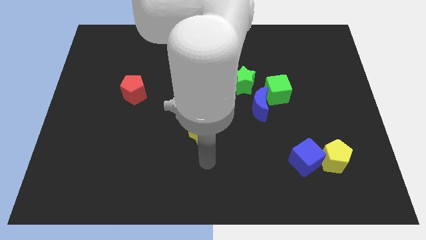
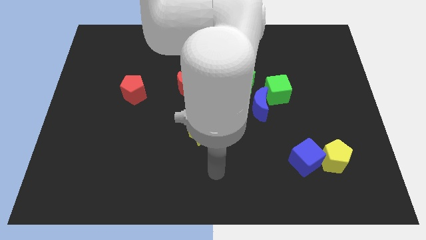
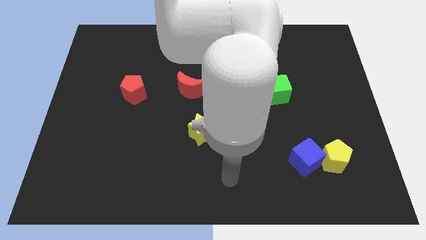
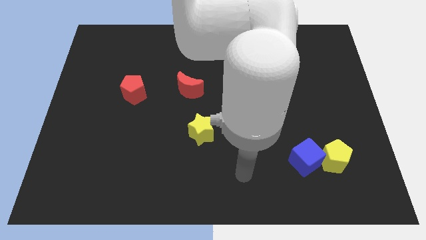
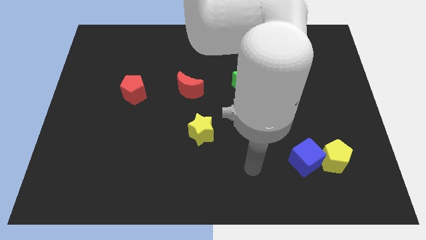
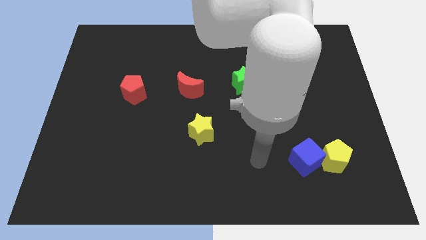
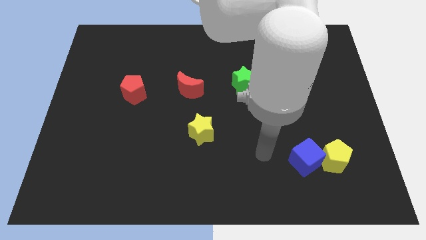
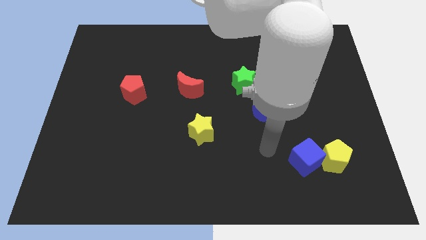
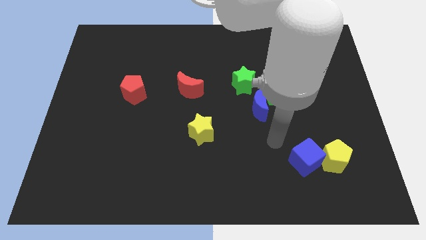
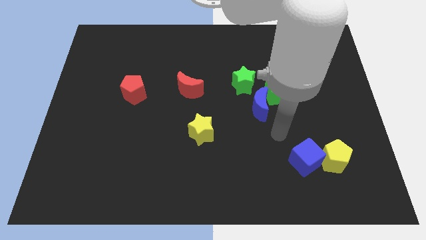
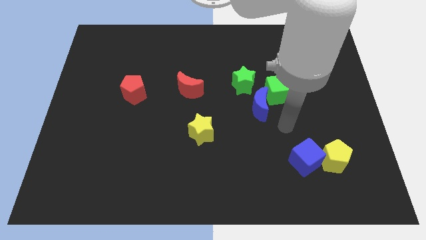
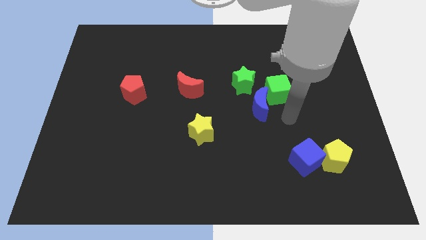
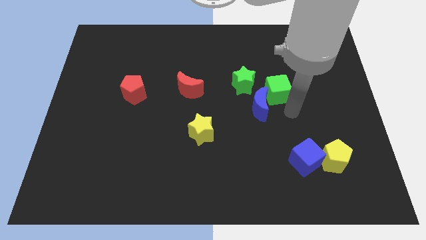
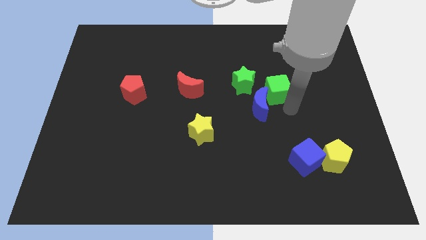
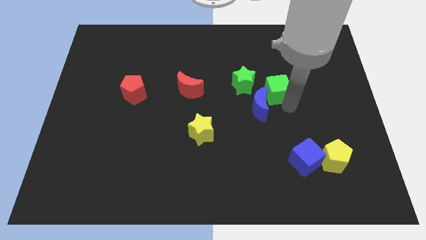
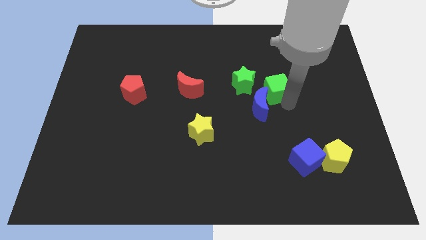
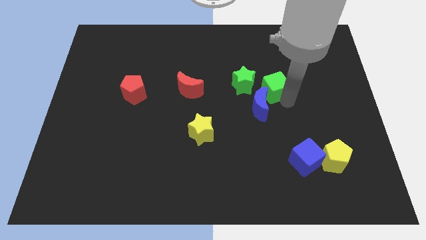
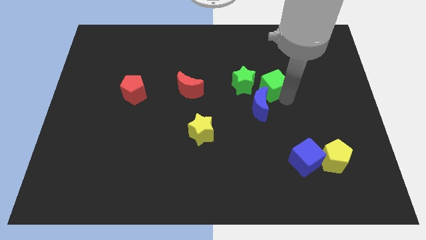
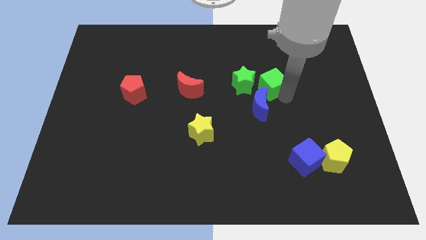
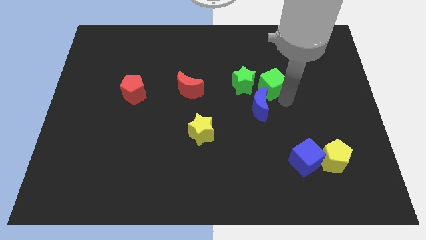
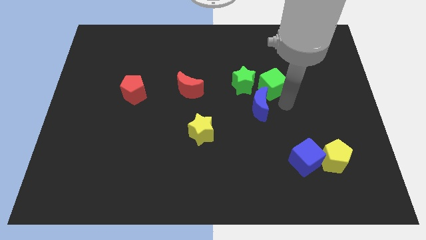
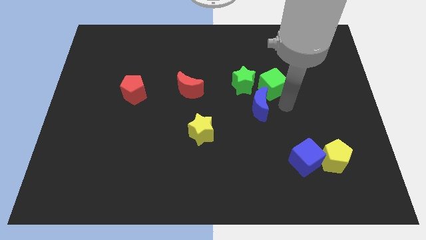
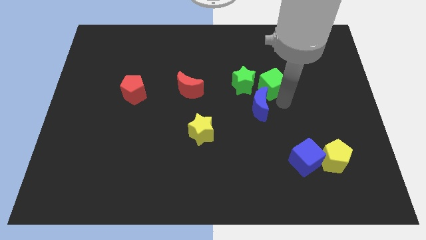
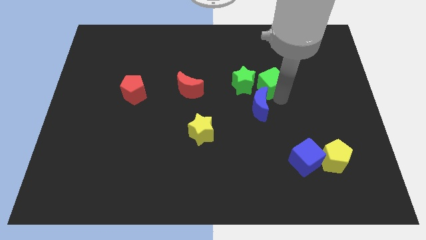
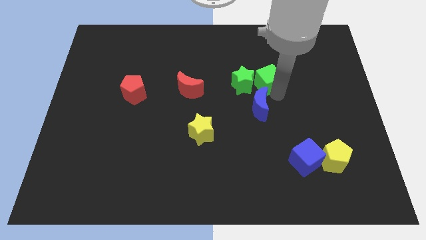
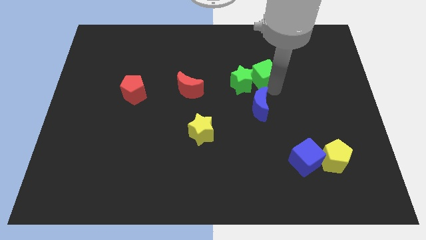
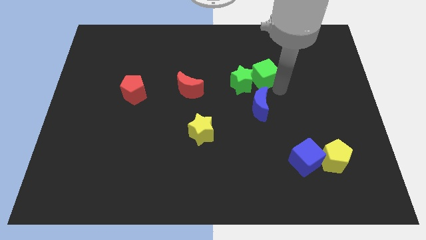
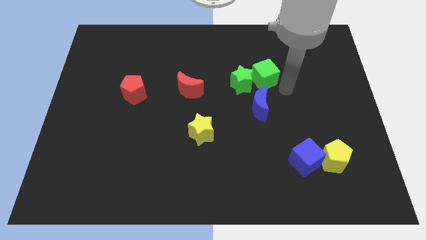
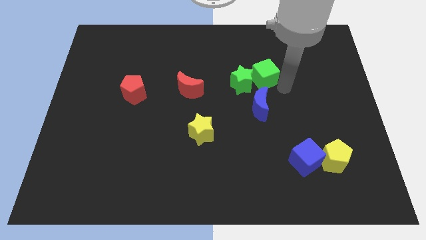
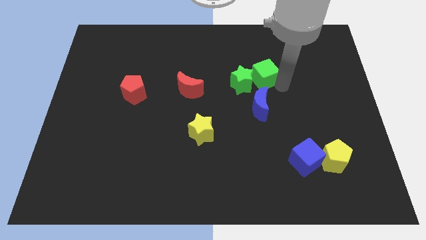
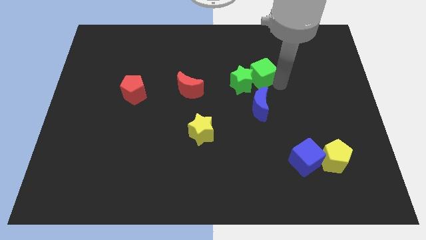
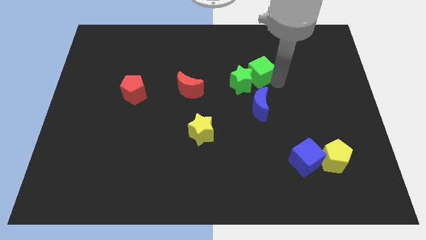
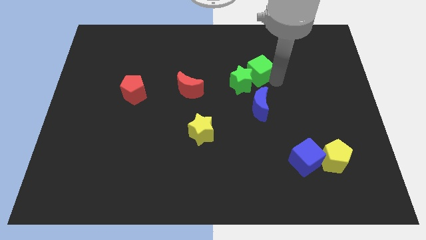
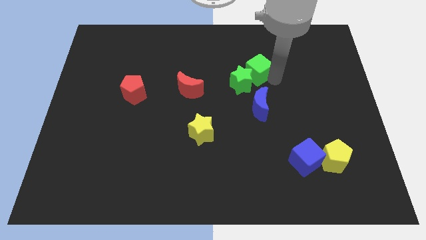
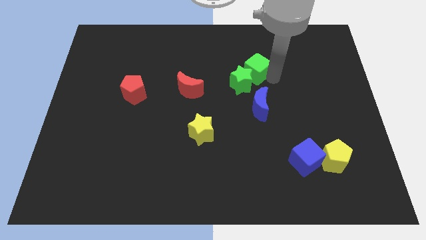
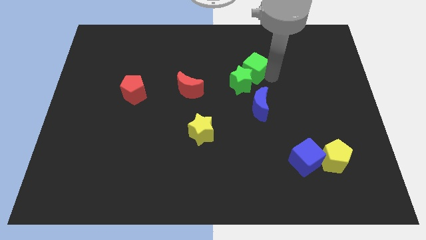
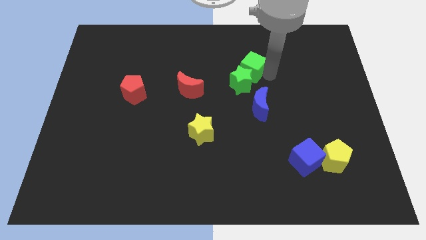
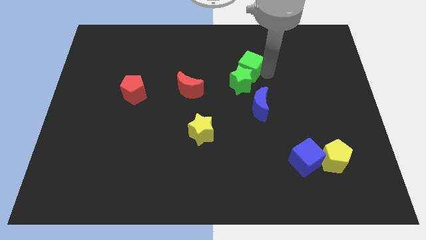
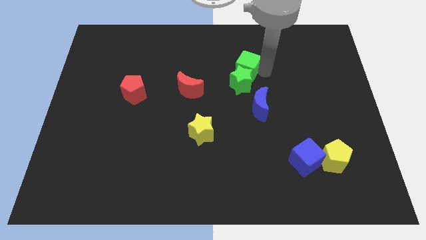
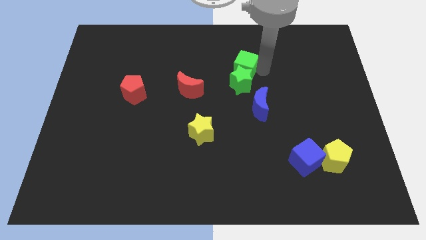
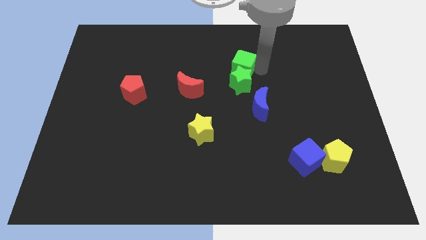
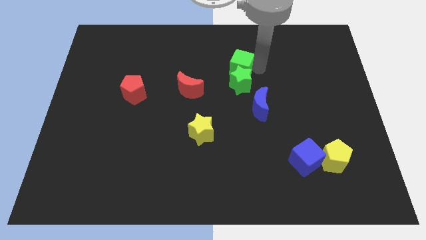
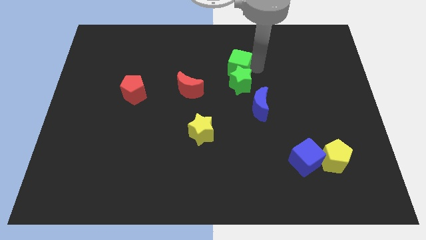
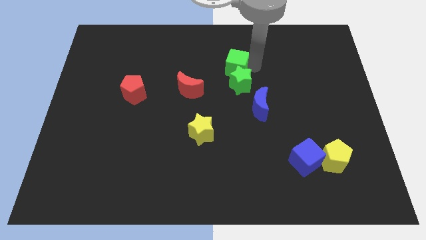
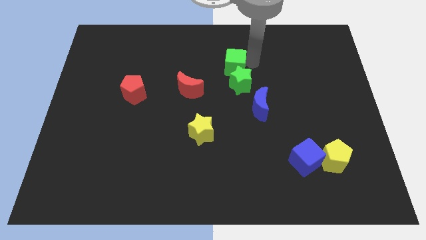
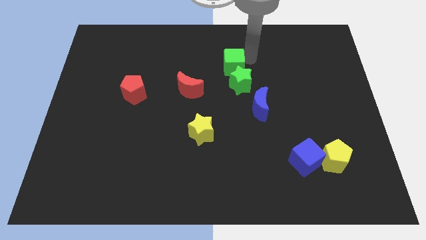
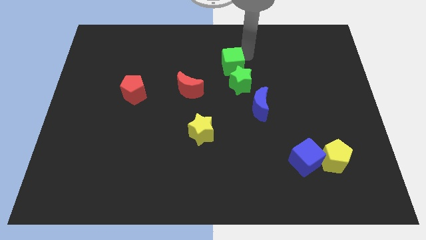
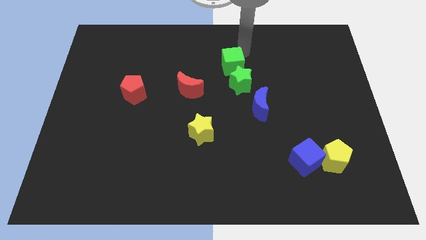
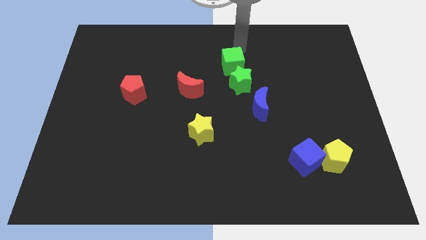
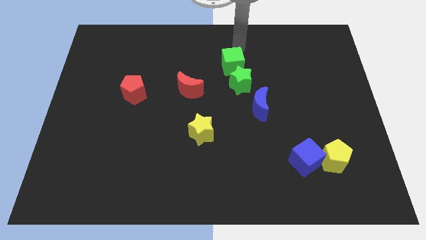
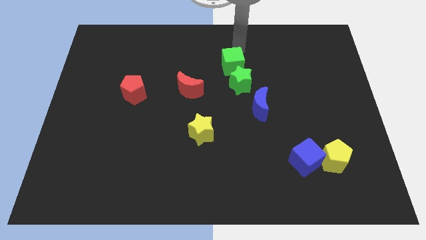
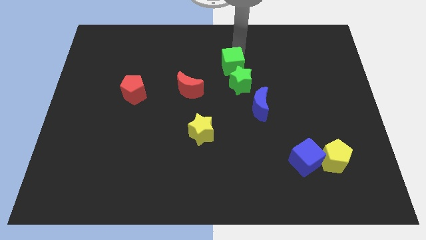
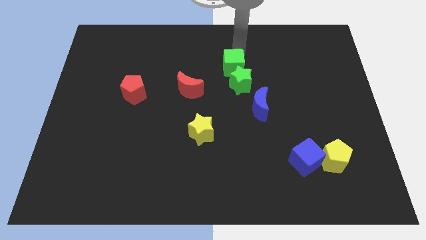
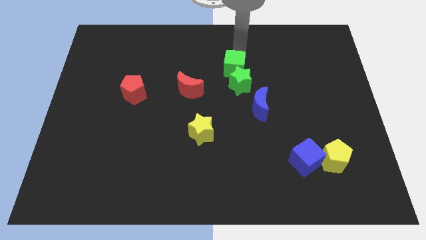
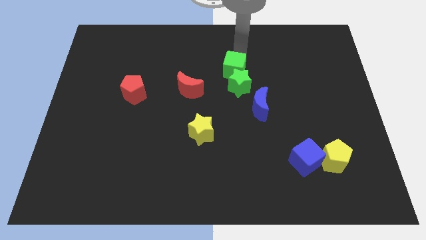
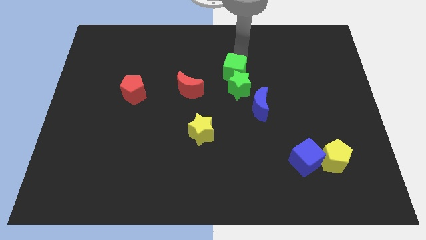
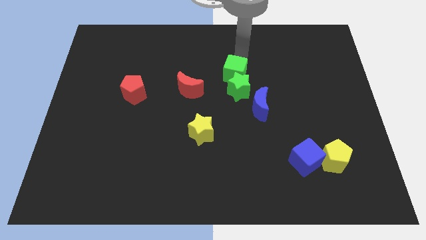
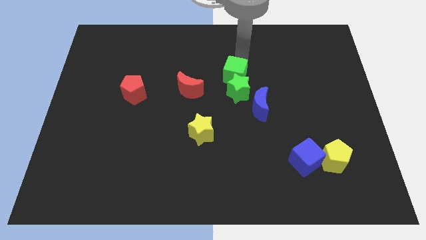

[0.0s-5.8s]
slide the green cube diagonally up and to the left of the blue moon
